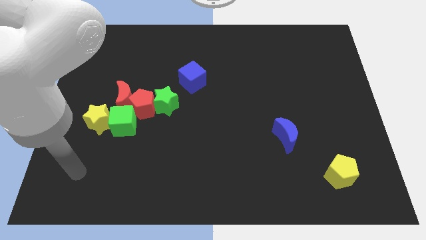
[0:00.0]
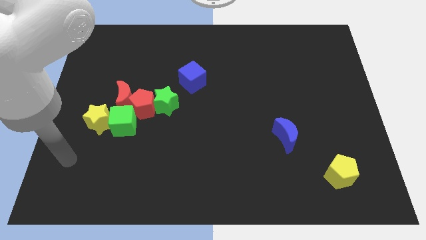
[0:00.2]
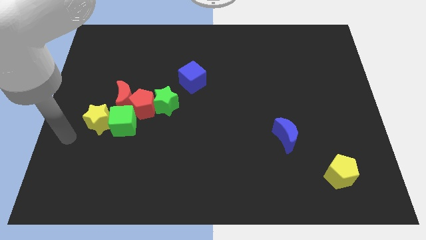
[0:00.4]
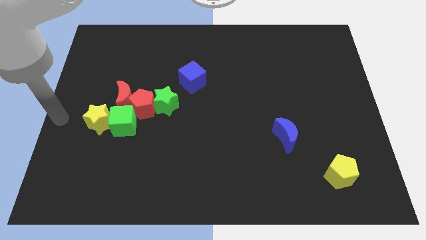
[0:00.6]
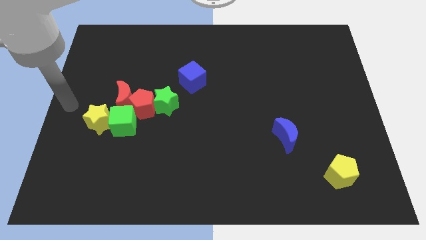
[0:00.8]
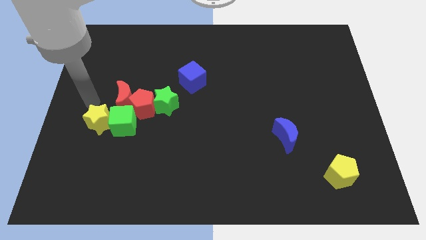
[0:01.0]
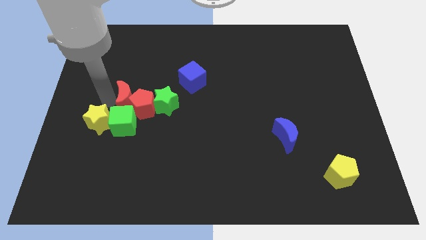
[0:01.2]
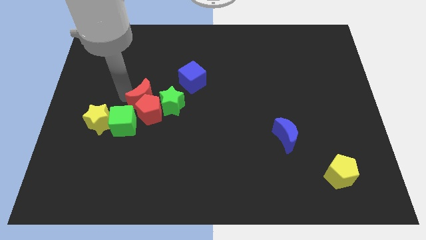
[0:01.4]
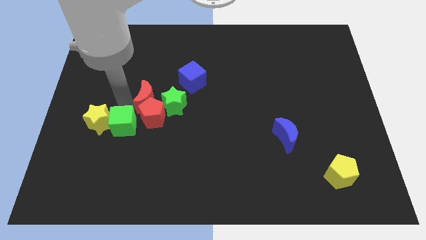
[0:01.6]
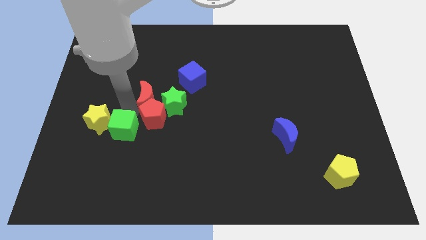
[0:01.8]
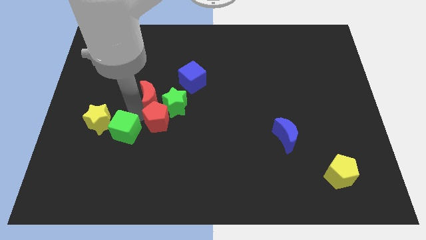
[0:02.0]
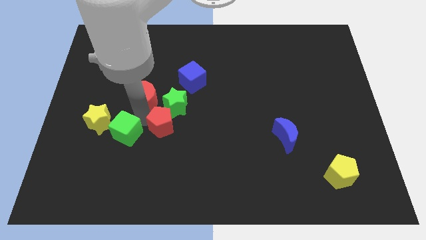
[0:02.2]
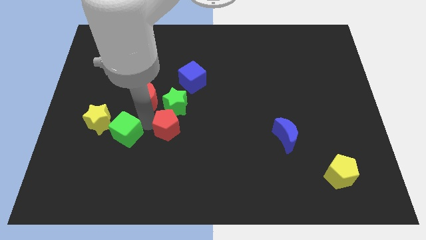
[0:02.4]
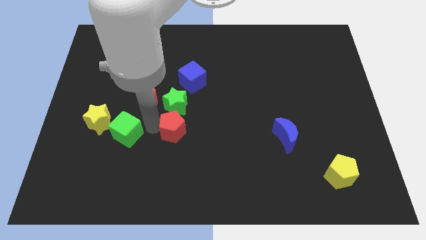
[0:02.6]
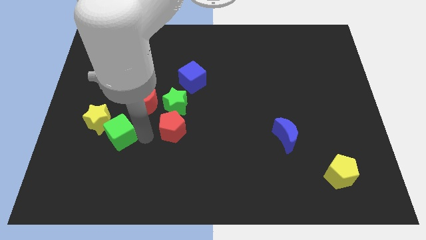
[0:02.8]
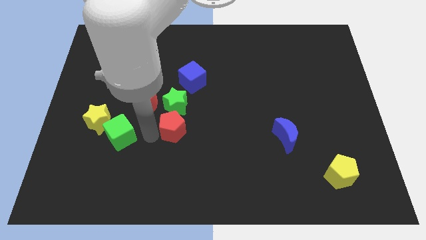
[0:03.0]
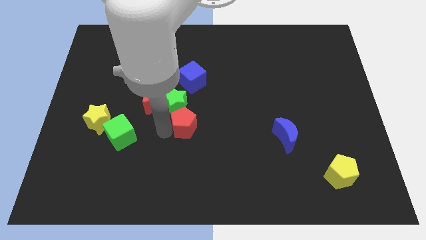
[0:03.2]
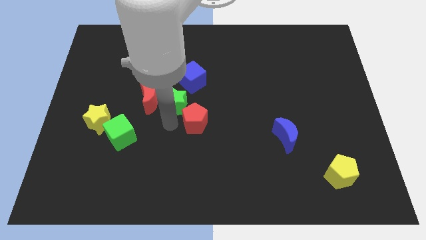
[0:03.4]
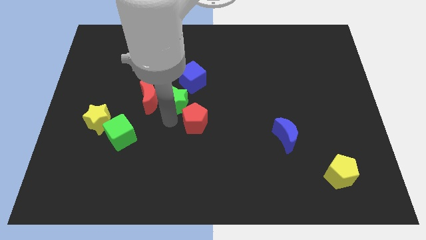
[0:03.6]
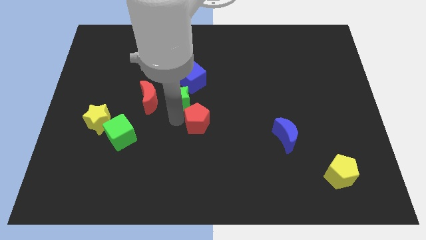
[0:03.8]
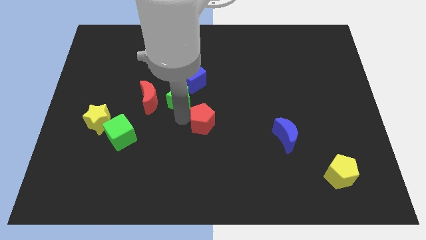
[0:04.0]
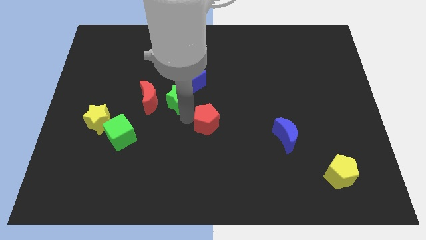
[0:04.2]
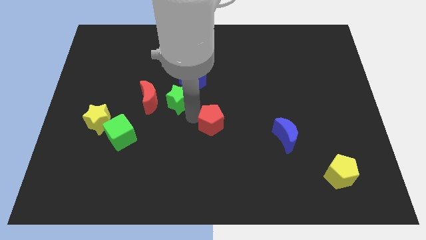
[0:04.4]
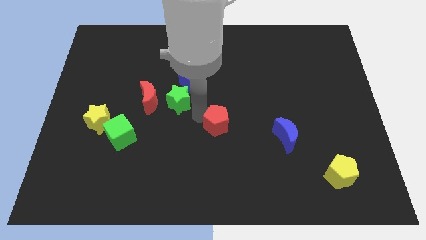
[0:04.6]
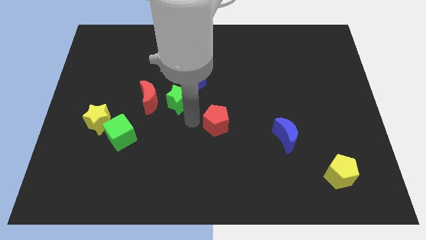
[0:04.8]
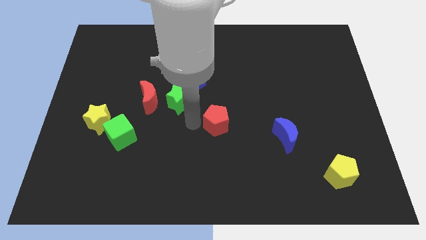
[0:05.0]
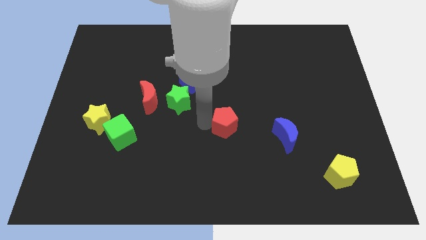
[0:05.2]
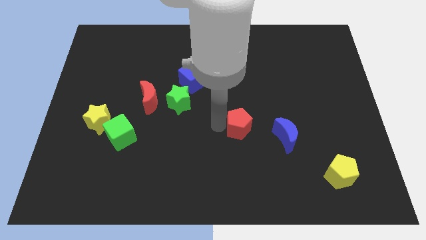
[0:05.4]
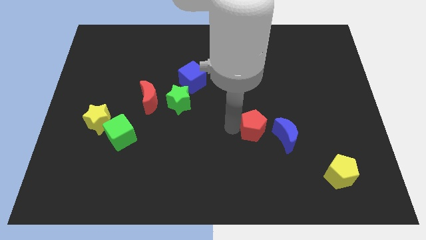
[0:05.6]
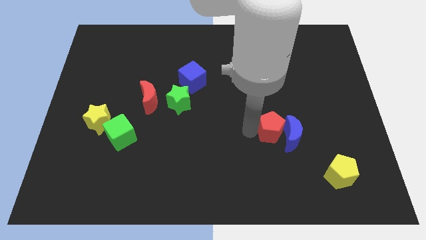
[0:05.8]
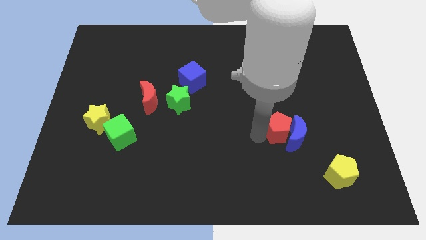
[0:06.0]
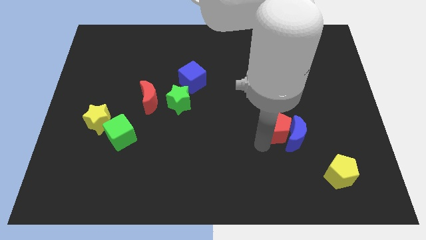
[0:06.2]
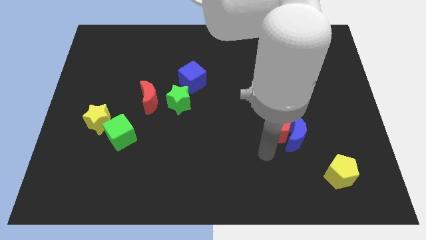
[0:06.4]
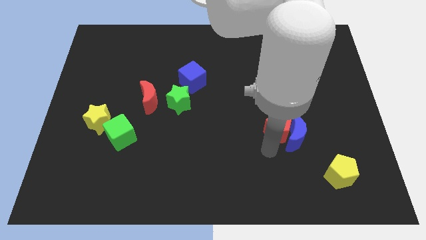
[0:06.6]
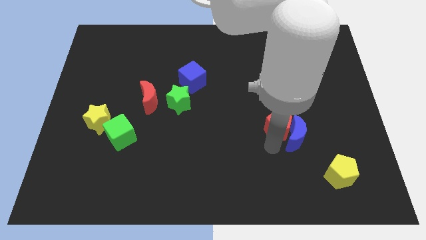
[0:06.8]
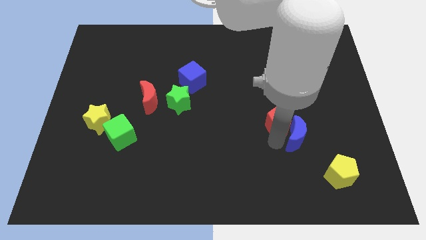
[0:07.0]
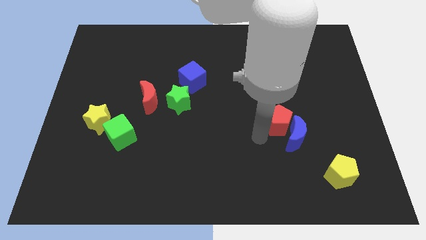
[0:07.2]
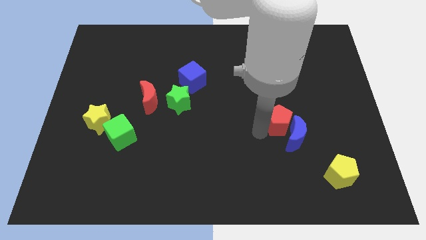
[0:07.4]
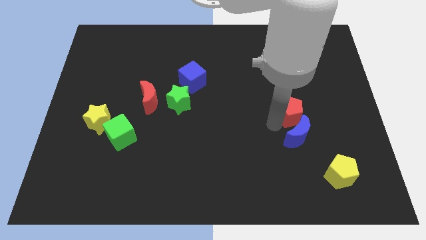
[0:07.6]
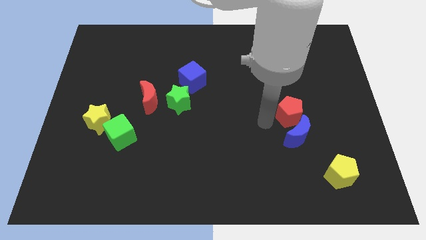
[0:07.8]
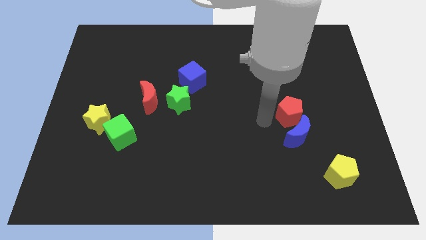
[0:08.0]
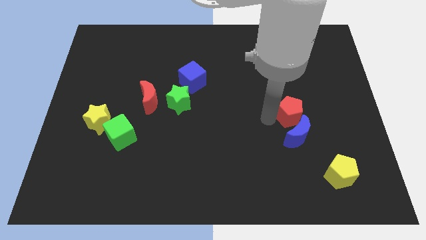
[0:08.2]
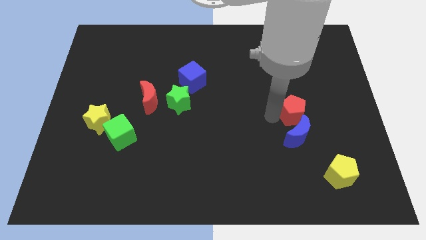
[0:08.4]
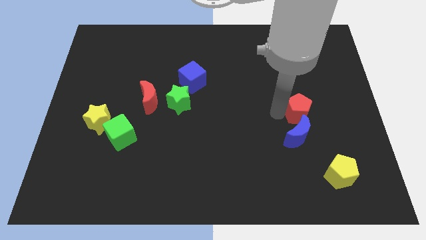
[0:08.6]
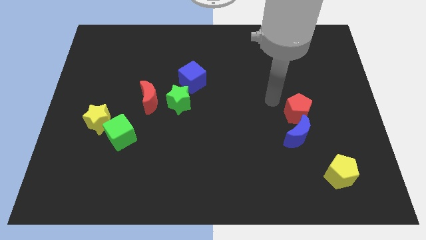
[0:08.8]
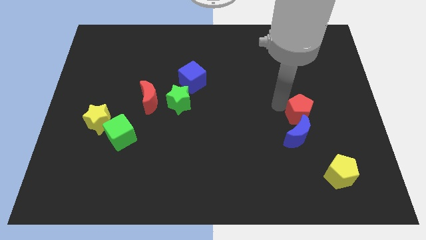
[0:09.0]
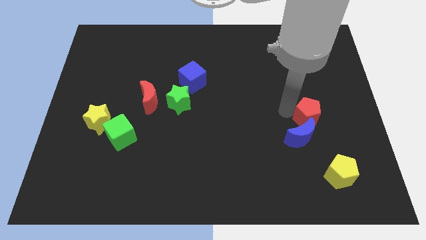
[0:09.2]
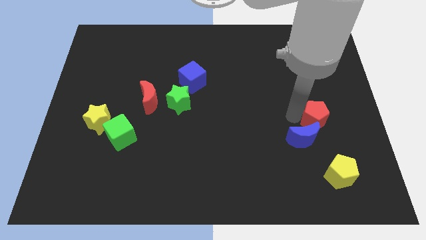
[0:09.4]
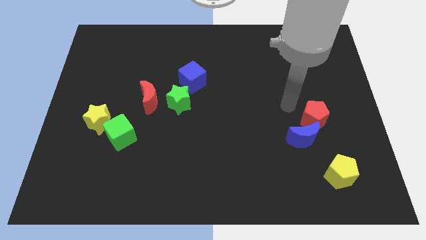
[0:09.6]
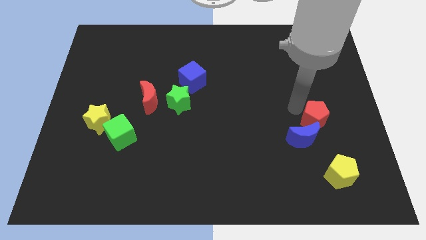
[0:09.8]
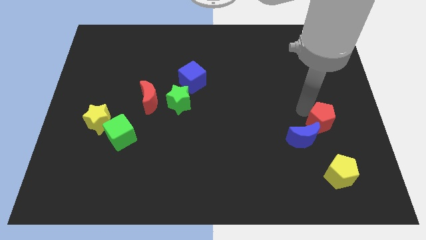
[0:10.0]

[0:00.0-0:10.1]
put the red pentagon just right of the blue moon

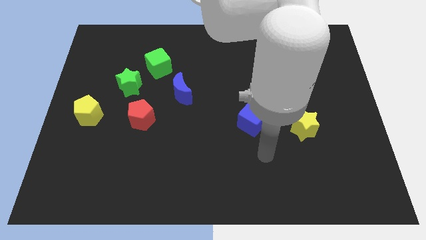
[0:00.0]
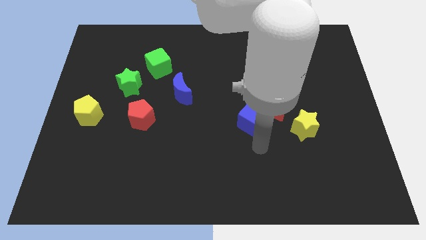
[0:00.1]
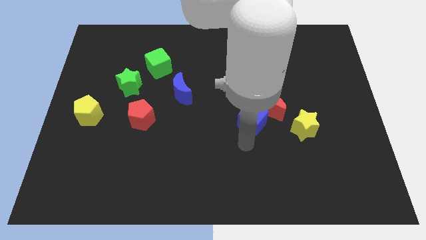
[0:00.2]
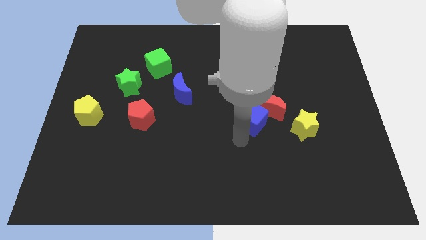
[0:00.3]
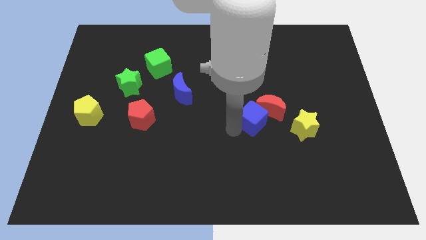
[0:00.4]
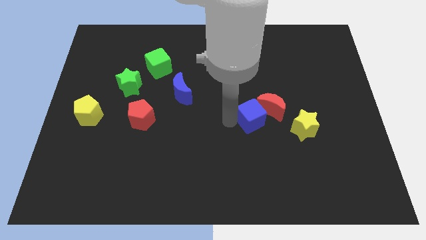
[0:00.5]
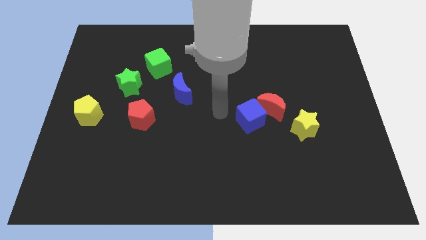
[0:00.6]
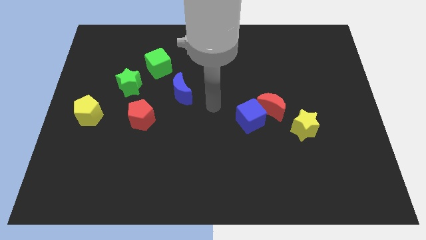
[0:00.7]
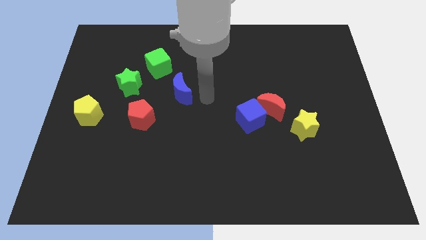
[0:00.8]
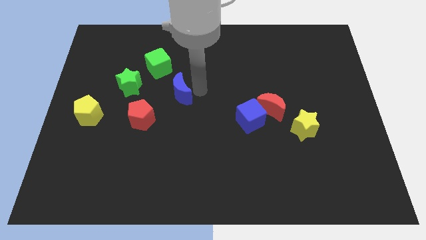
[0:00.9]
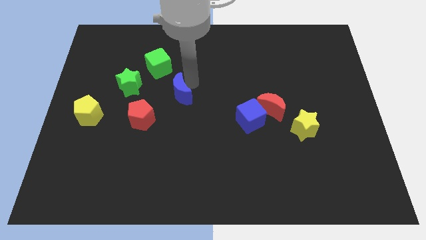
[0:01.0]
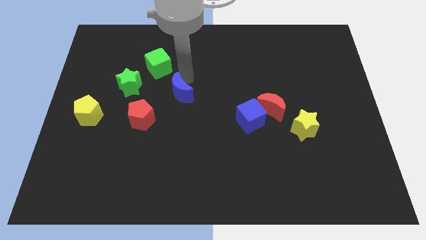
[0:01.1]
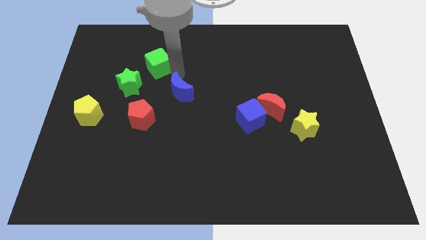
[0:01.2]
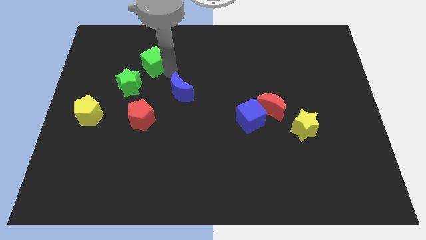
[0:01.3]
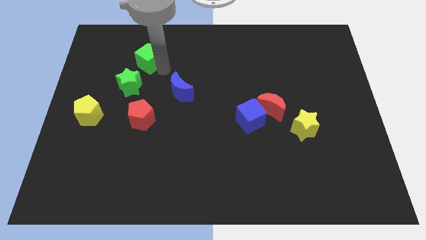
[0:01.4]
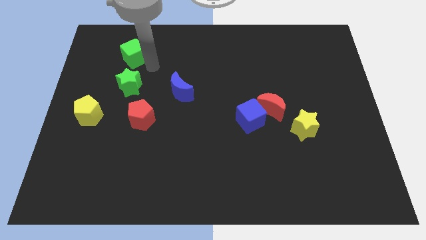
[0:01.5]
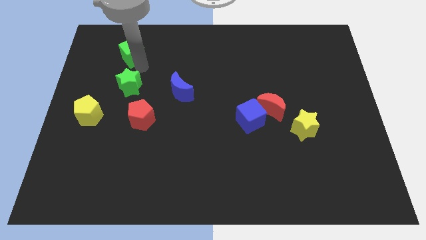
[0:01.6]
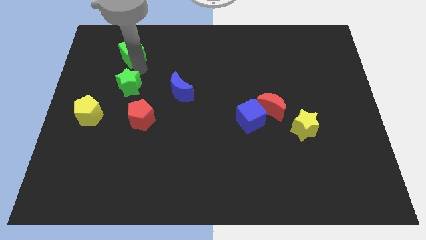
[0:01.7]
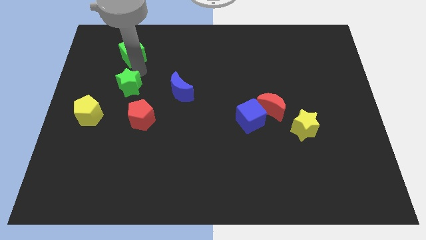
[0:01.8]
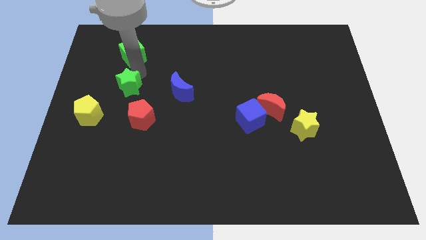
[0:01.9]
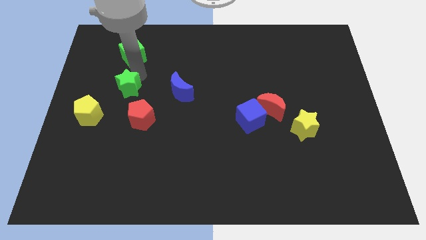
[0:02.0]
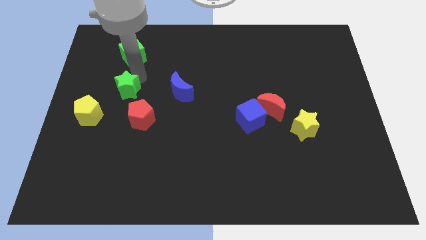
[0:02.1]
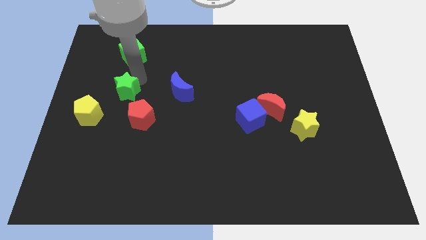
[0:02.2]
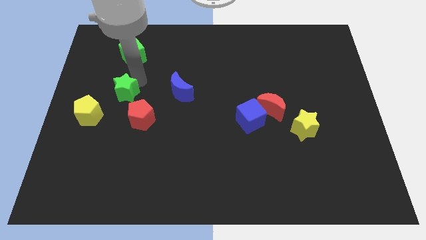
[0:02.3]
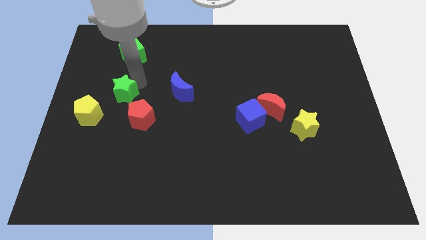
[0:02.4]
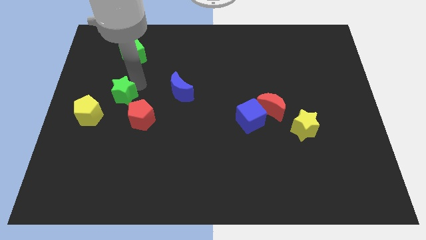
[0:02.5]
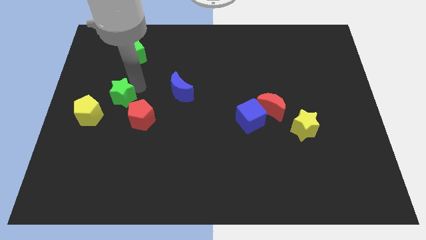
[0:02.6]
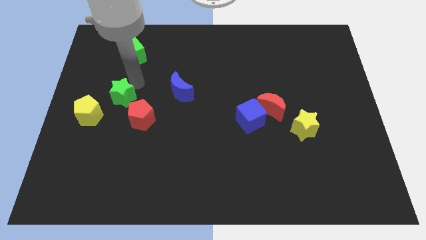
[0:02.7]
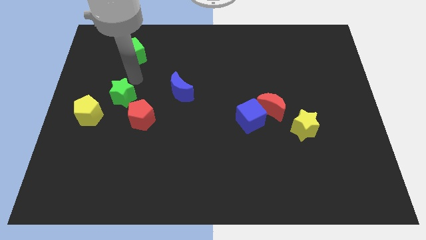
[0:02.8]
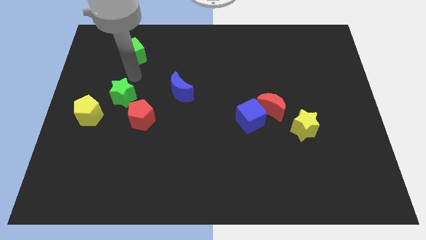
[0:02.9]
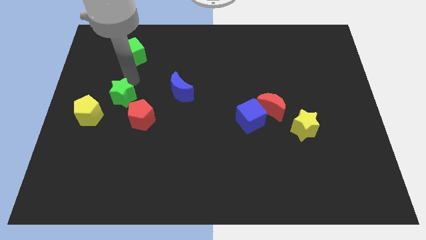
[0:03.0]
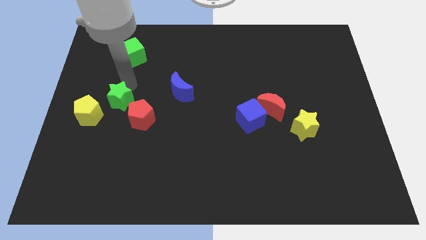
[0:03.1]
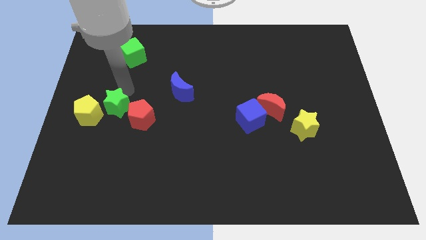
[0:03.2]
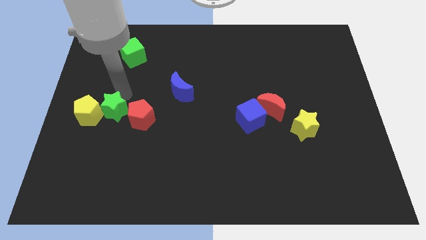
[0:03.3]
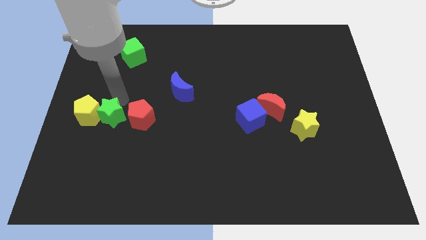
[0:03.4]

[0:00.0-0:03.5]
slide the green star to the bottom right of the yellow pentagon
